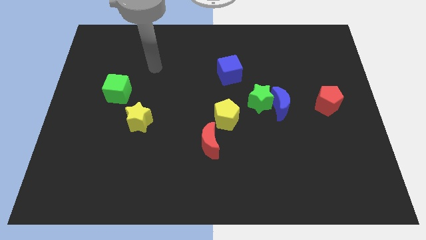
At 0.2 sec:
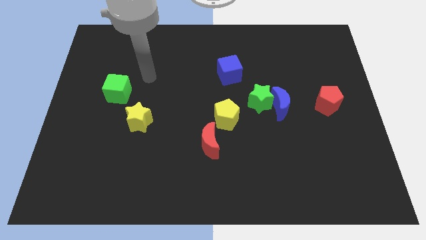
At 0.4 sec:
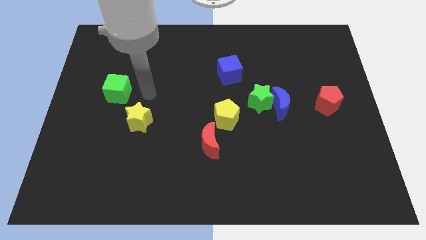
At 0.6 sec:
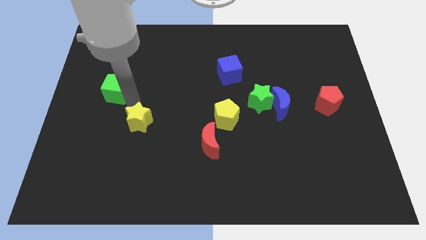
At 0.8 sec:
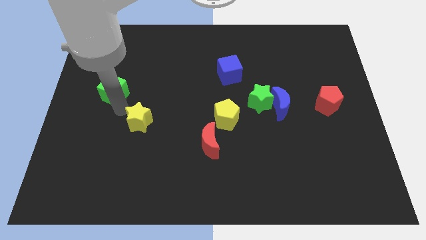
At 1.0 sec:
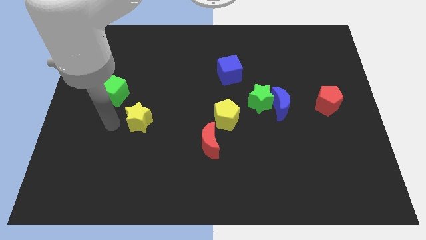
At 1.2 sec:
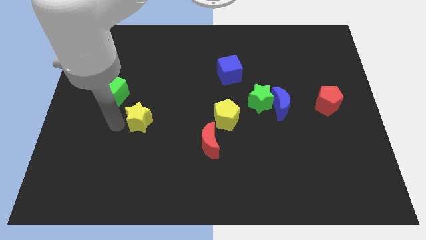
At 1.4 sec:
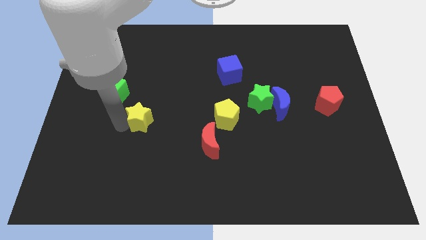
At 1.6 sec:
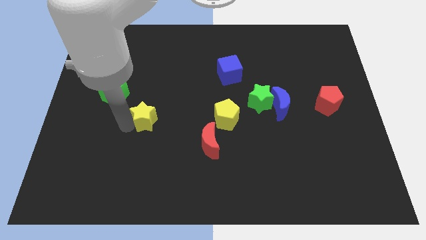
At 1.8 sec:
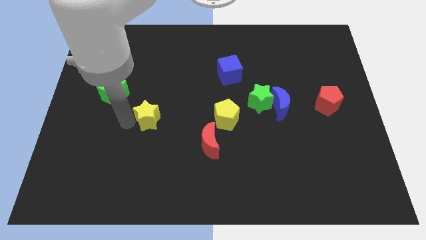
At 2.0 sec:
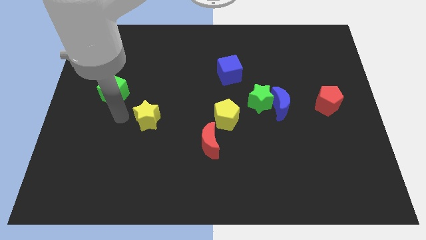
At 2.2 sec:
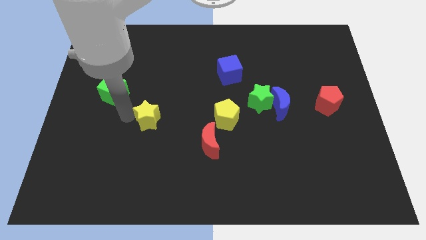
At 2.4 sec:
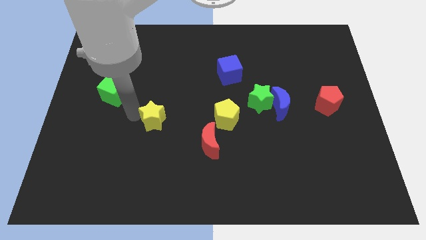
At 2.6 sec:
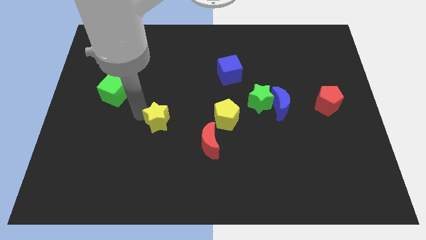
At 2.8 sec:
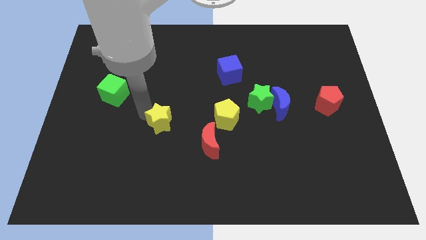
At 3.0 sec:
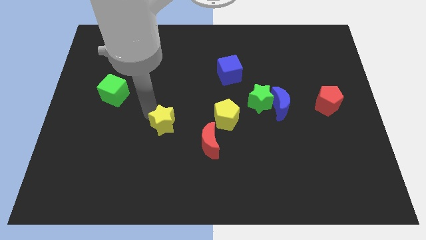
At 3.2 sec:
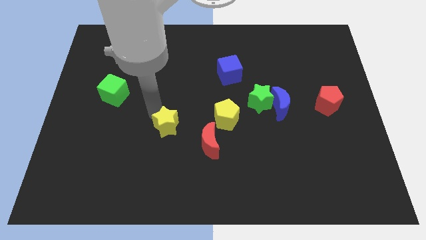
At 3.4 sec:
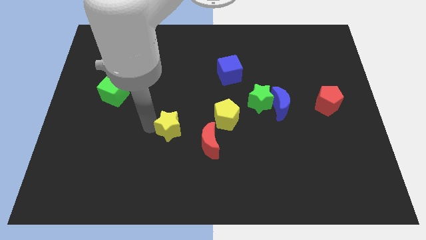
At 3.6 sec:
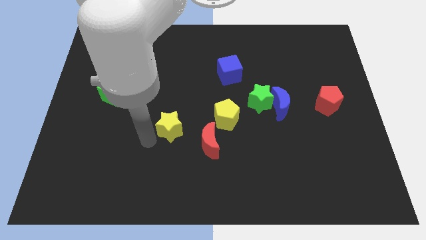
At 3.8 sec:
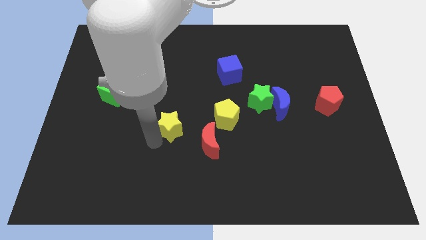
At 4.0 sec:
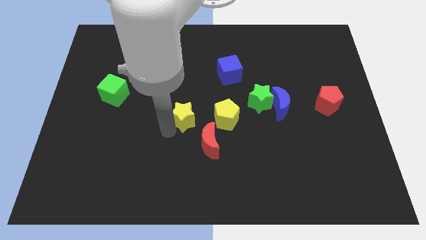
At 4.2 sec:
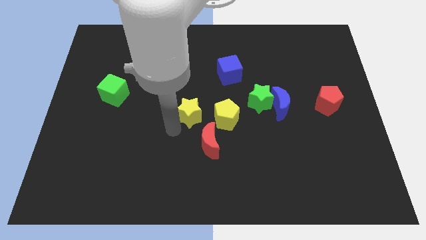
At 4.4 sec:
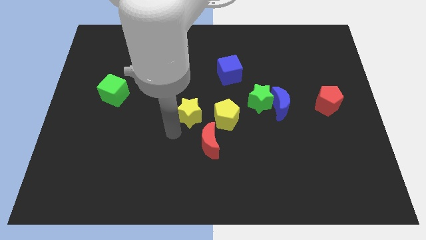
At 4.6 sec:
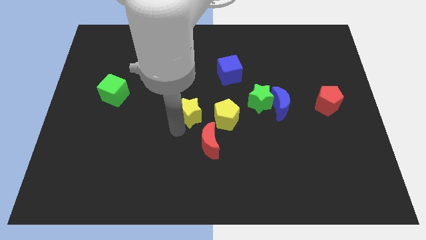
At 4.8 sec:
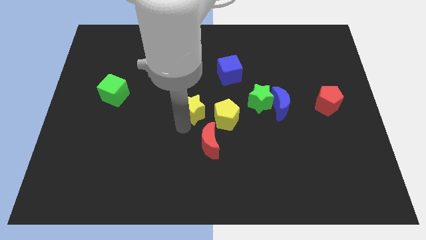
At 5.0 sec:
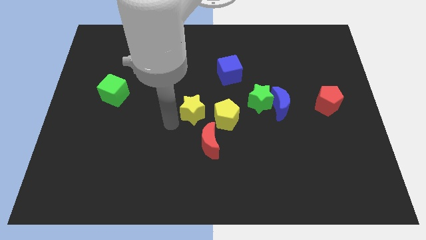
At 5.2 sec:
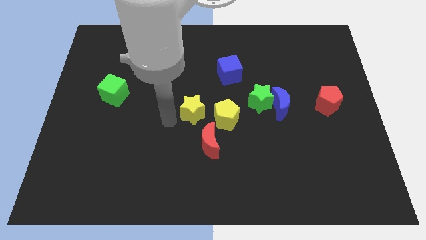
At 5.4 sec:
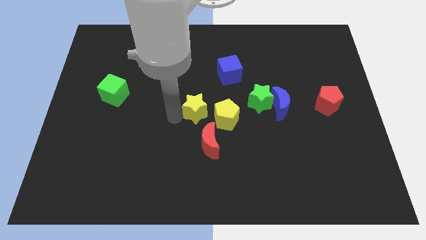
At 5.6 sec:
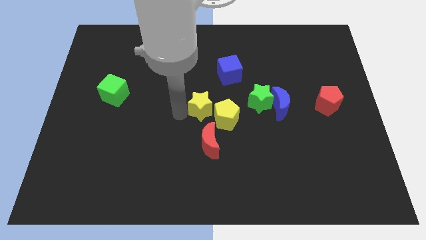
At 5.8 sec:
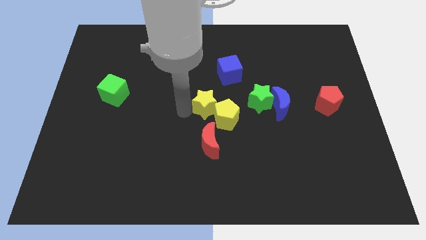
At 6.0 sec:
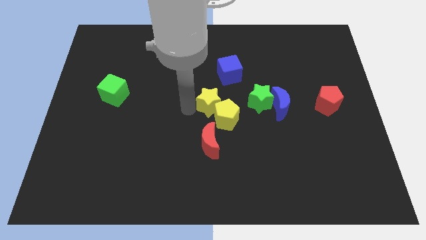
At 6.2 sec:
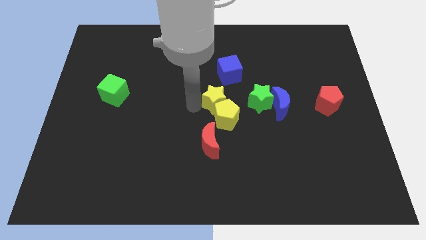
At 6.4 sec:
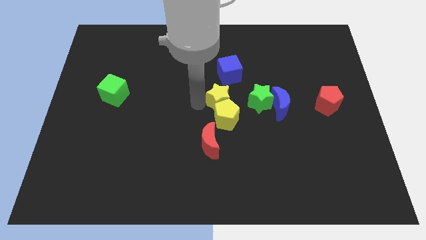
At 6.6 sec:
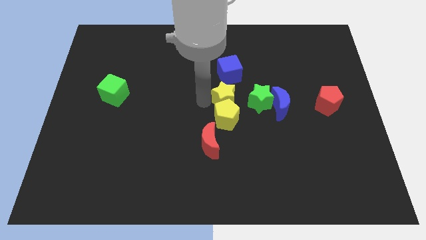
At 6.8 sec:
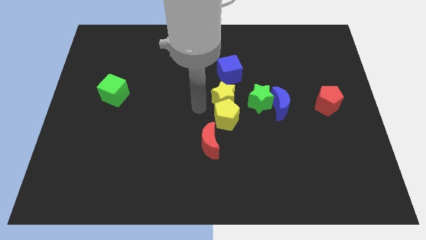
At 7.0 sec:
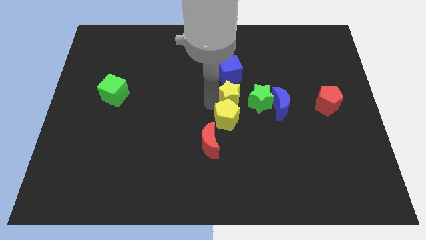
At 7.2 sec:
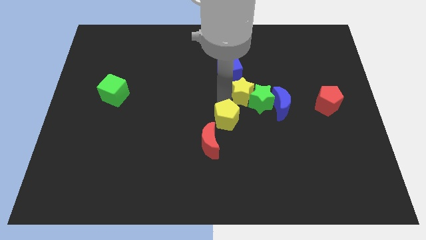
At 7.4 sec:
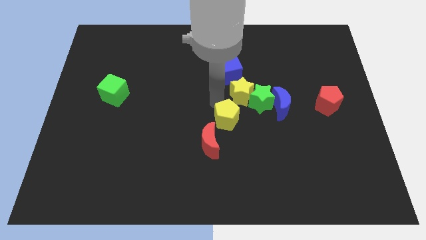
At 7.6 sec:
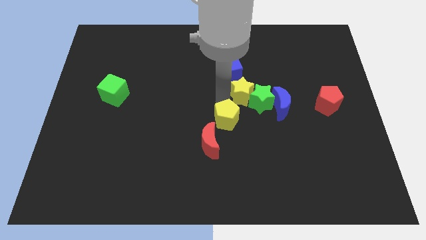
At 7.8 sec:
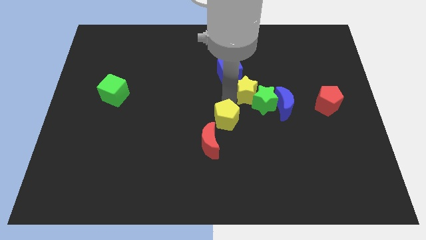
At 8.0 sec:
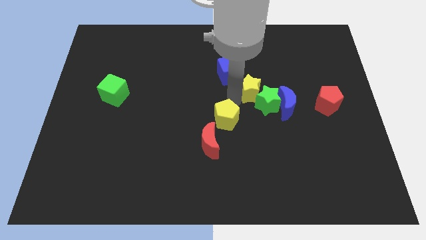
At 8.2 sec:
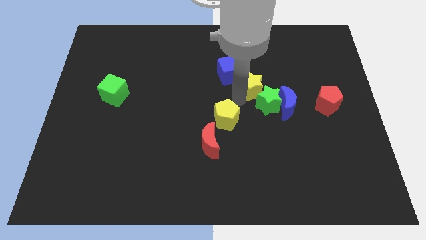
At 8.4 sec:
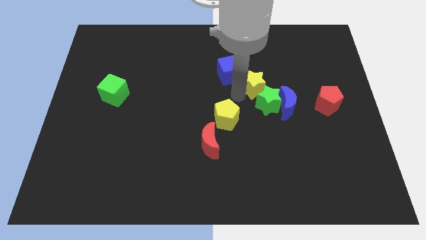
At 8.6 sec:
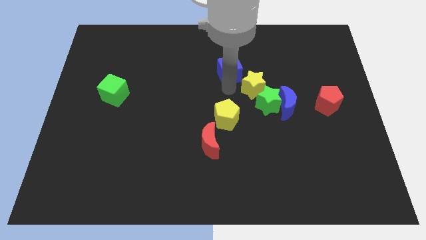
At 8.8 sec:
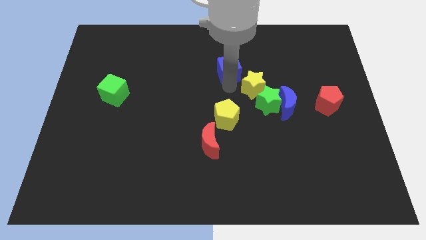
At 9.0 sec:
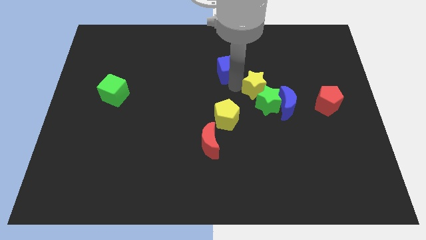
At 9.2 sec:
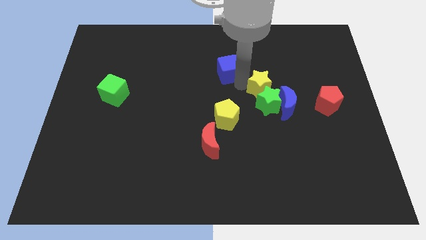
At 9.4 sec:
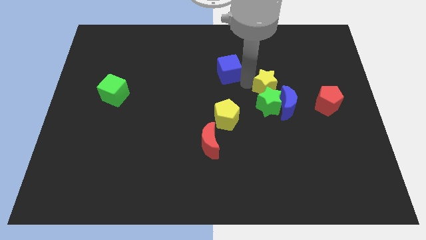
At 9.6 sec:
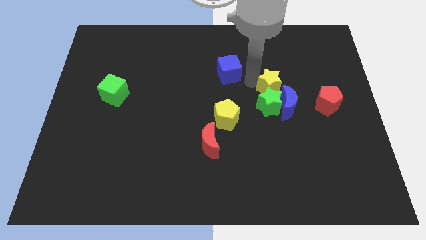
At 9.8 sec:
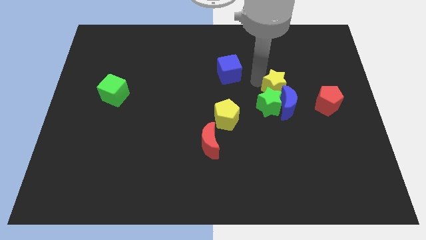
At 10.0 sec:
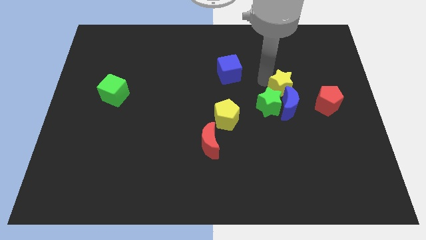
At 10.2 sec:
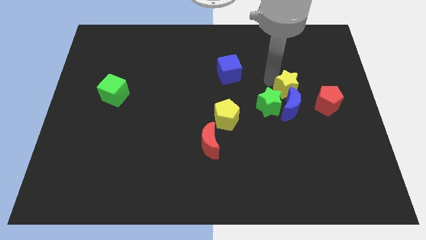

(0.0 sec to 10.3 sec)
push the yellow star to the top right side of the blue moon

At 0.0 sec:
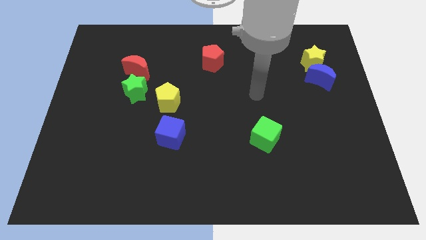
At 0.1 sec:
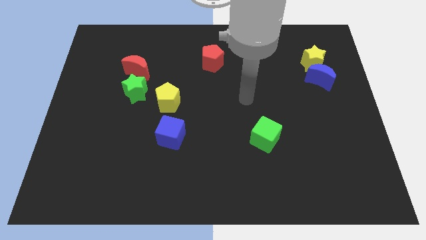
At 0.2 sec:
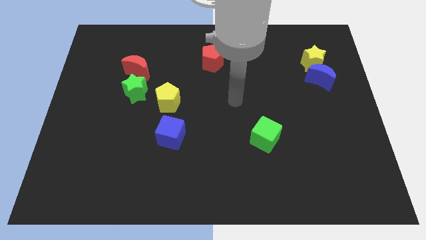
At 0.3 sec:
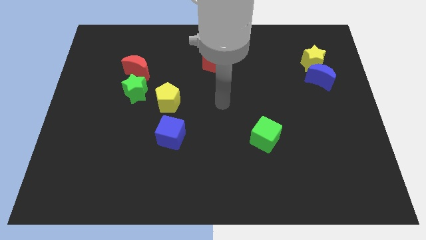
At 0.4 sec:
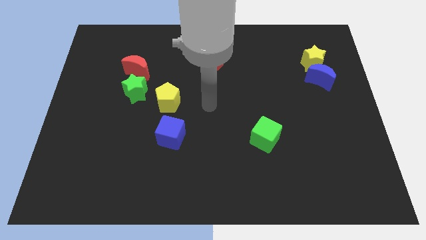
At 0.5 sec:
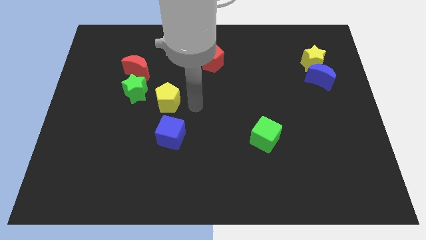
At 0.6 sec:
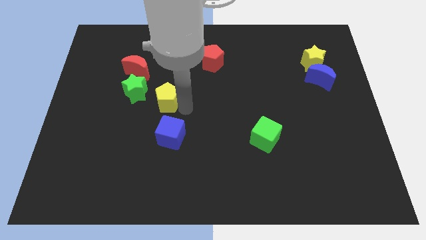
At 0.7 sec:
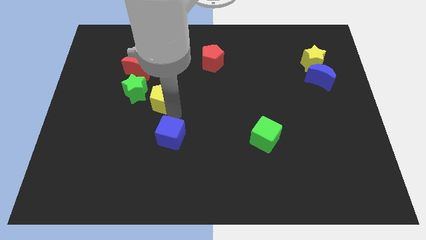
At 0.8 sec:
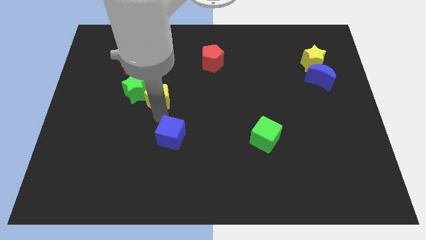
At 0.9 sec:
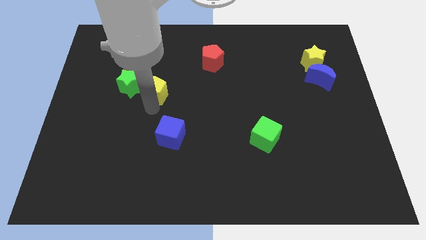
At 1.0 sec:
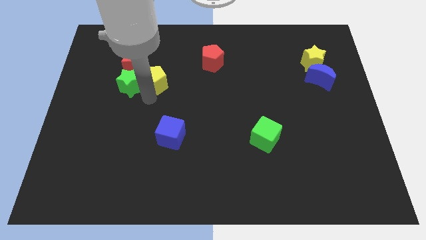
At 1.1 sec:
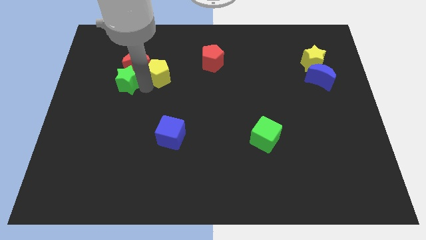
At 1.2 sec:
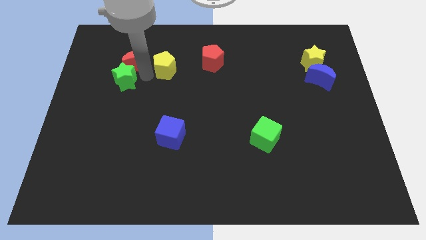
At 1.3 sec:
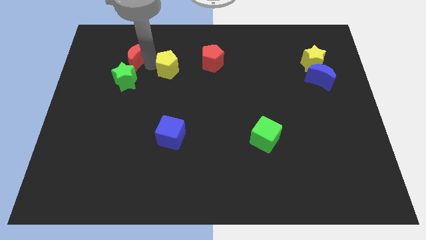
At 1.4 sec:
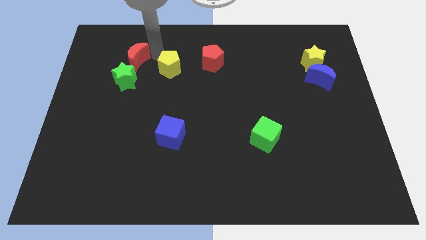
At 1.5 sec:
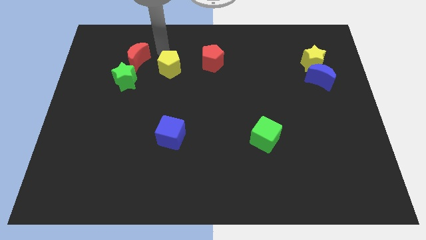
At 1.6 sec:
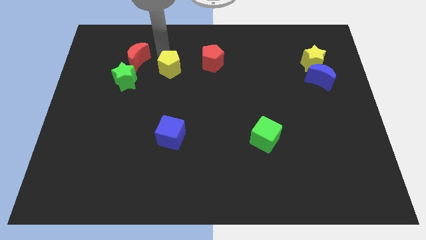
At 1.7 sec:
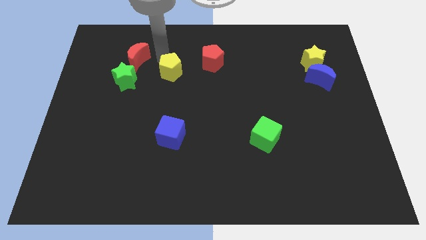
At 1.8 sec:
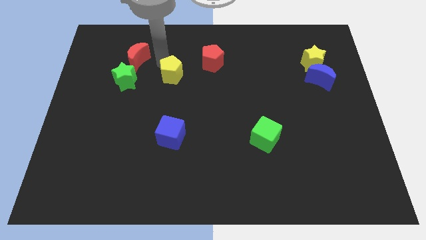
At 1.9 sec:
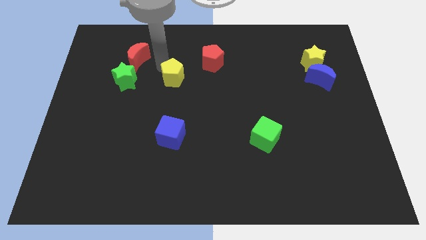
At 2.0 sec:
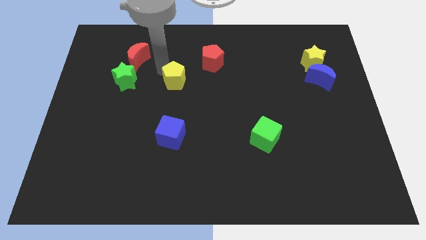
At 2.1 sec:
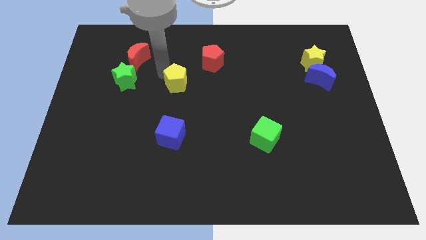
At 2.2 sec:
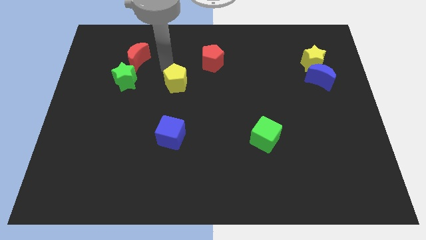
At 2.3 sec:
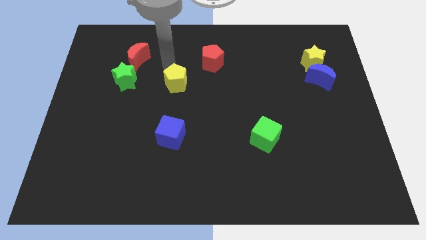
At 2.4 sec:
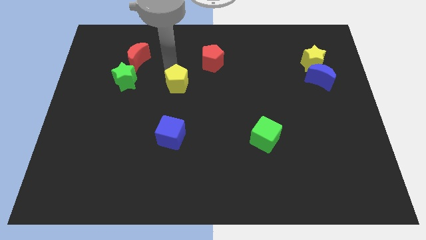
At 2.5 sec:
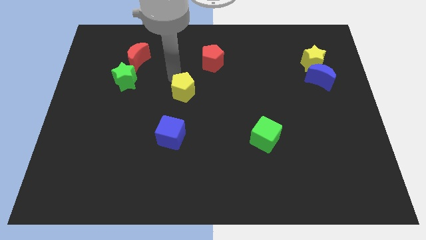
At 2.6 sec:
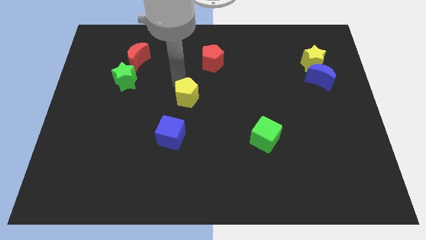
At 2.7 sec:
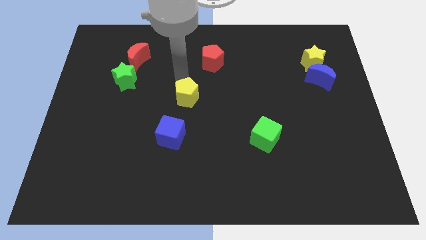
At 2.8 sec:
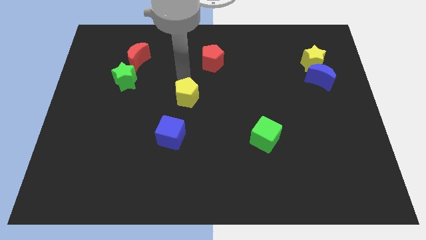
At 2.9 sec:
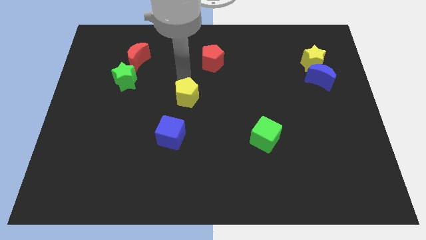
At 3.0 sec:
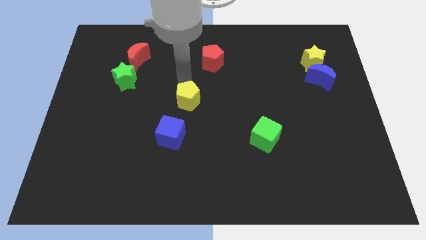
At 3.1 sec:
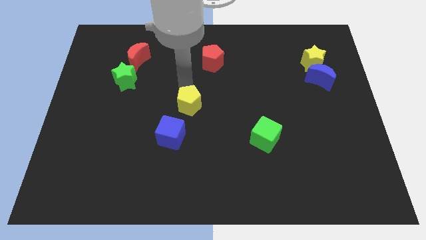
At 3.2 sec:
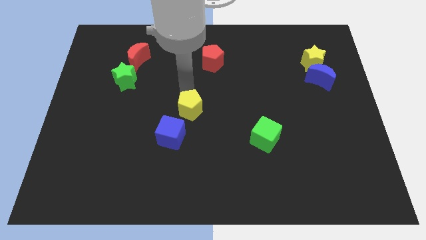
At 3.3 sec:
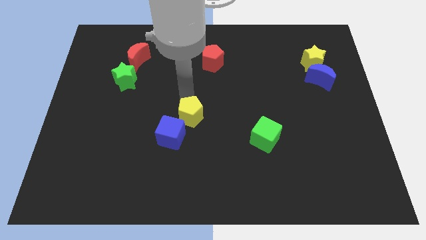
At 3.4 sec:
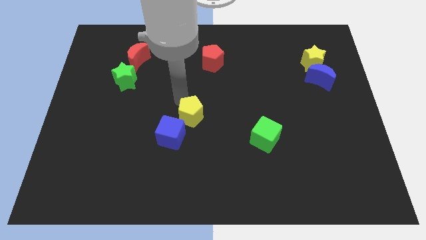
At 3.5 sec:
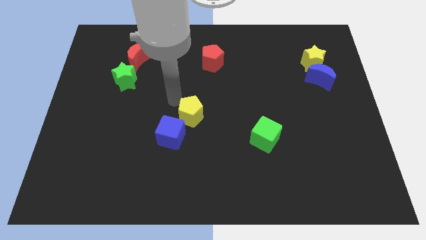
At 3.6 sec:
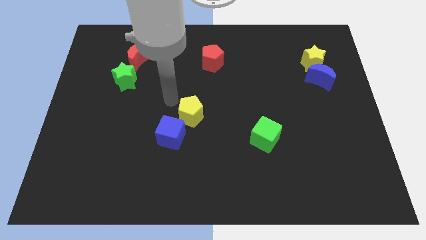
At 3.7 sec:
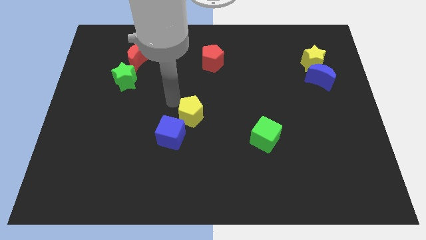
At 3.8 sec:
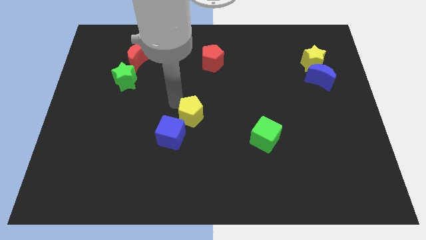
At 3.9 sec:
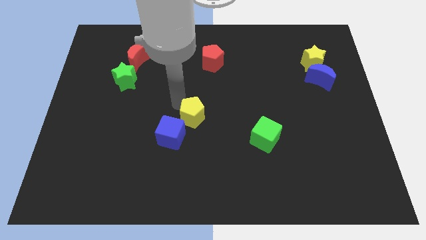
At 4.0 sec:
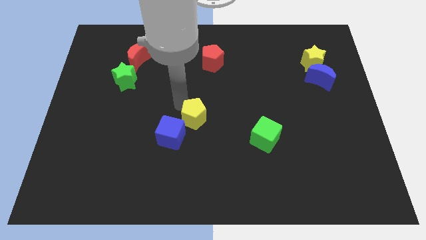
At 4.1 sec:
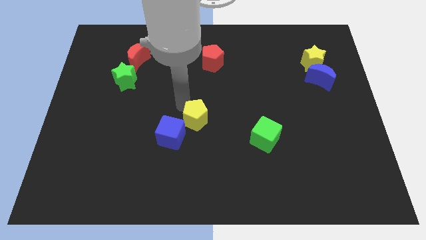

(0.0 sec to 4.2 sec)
push the yellow pentagon just right of the blue cube
